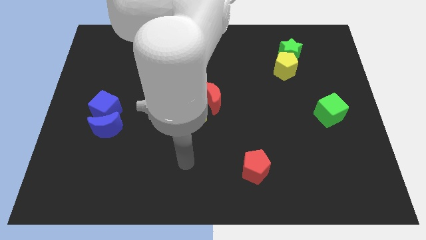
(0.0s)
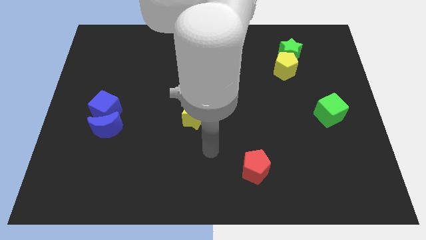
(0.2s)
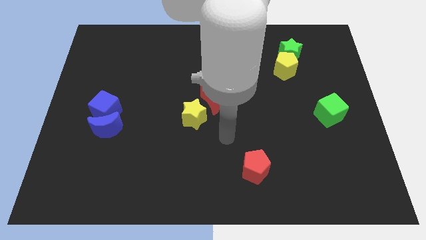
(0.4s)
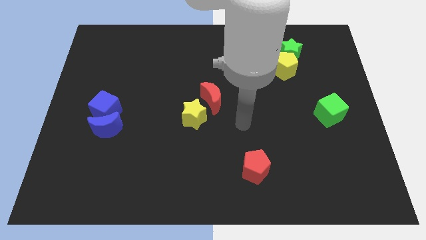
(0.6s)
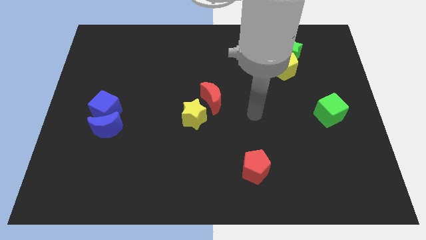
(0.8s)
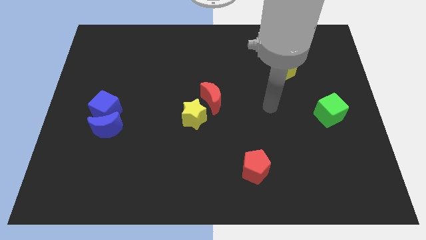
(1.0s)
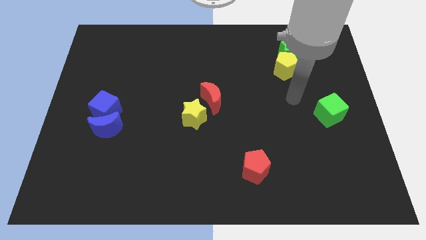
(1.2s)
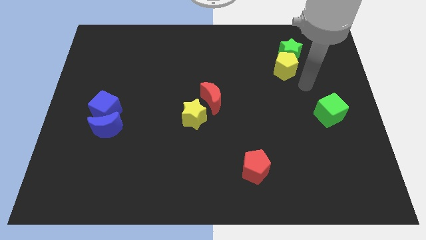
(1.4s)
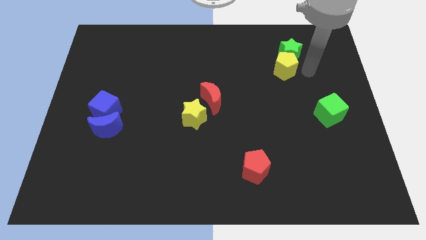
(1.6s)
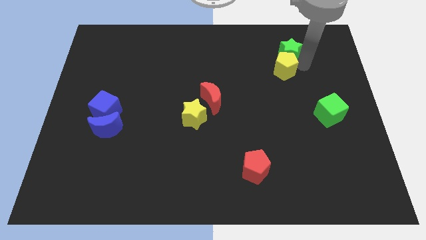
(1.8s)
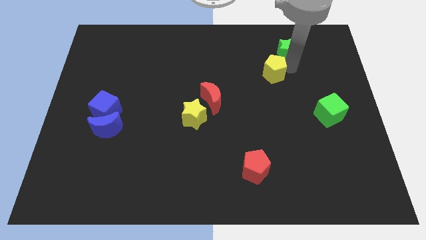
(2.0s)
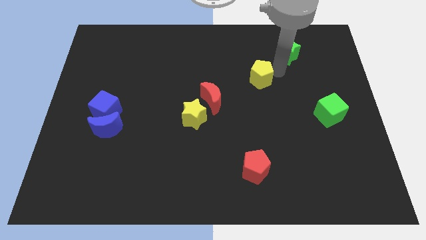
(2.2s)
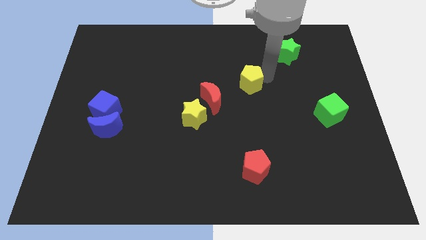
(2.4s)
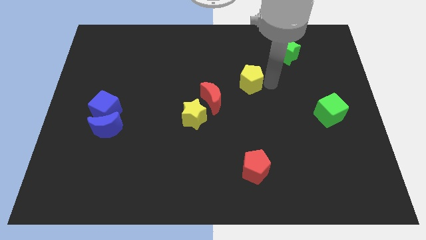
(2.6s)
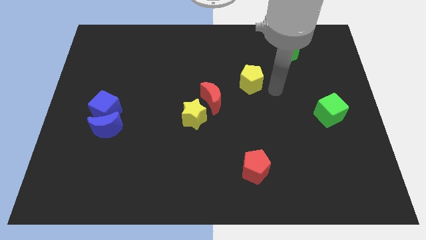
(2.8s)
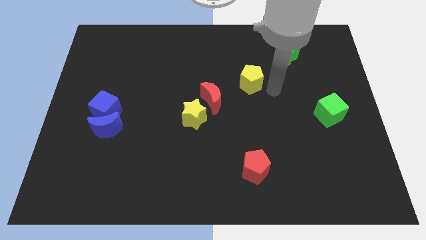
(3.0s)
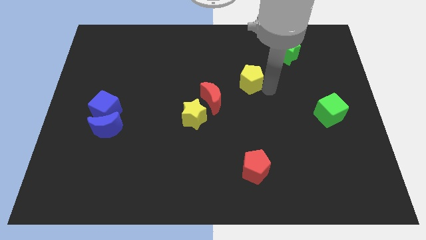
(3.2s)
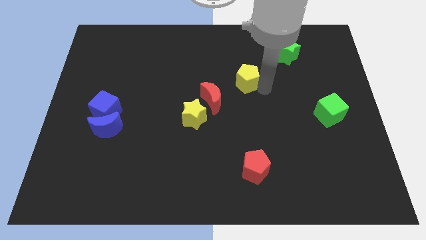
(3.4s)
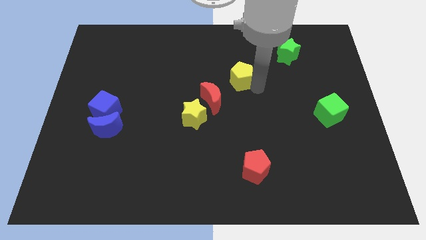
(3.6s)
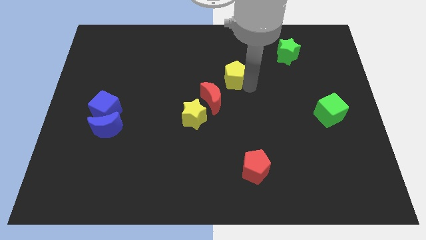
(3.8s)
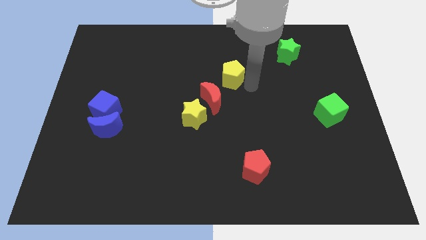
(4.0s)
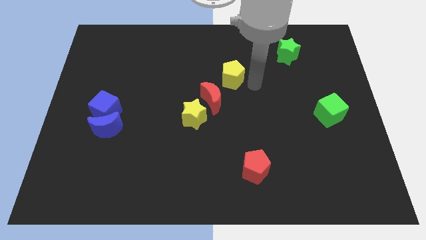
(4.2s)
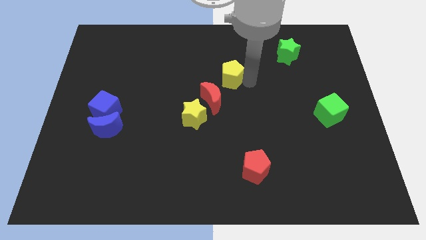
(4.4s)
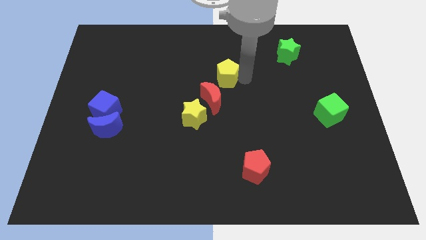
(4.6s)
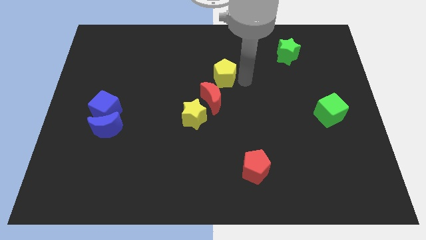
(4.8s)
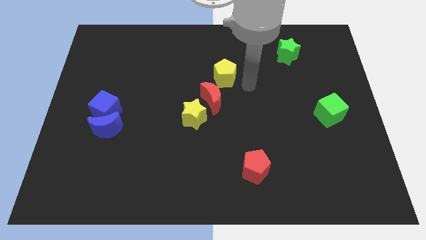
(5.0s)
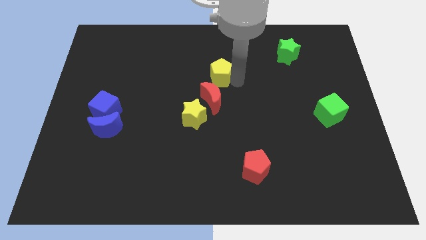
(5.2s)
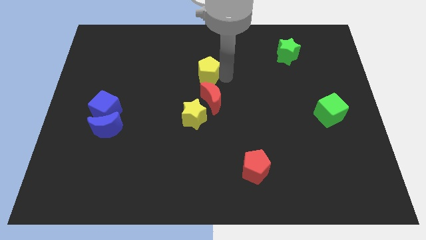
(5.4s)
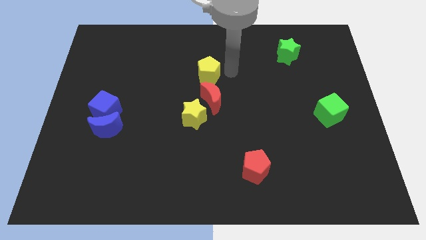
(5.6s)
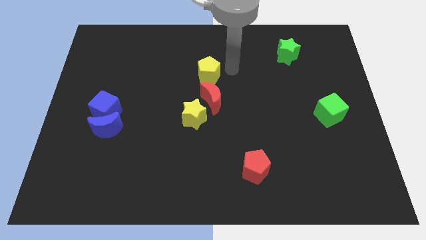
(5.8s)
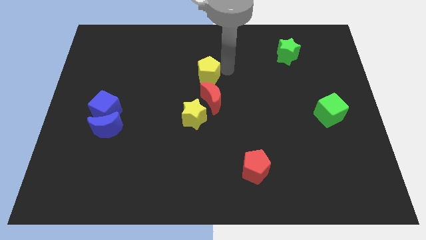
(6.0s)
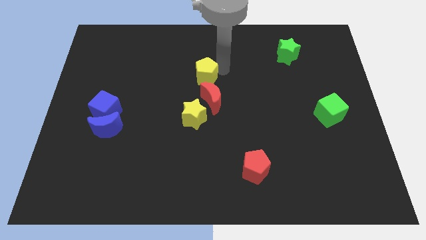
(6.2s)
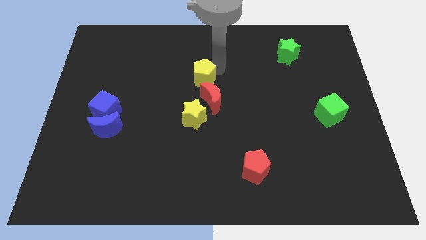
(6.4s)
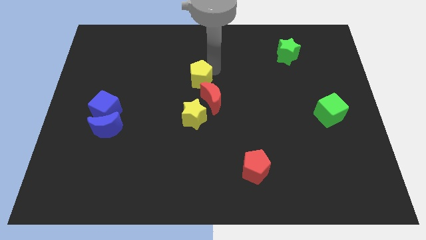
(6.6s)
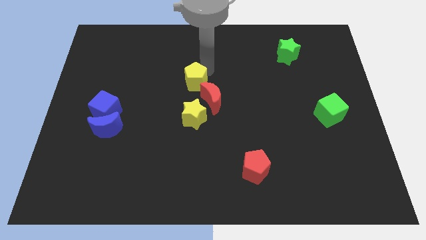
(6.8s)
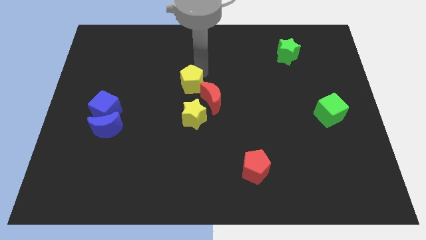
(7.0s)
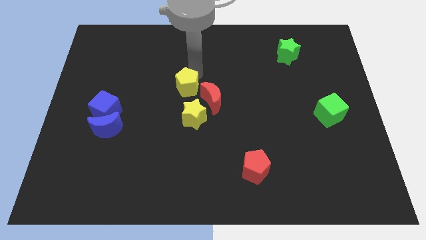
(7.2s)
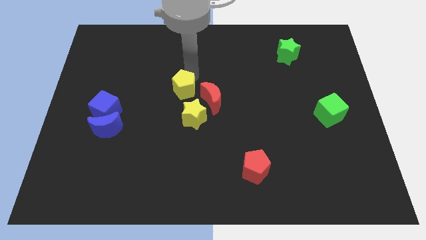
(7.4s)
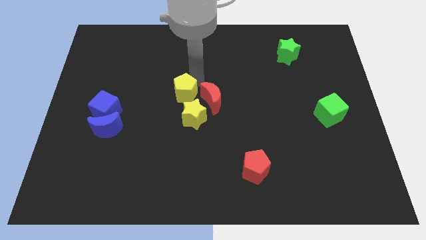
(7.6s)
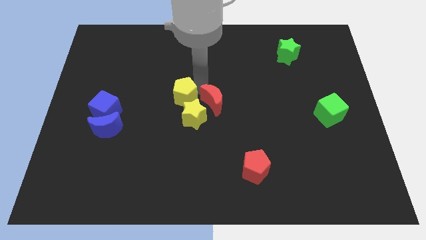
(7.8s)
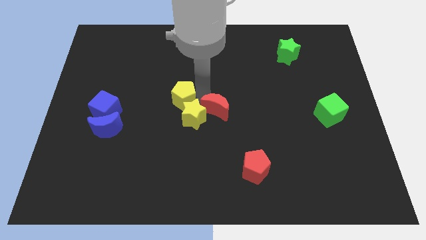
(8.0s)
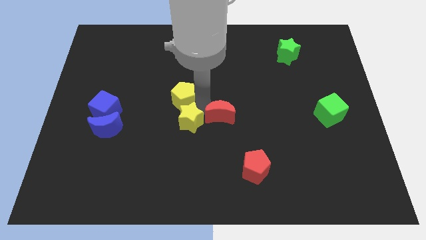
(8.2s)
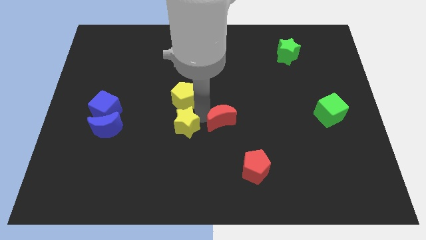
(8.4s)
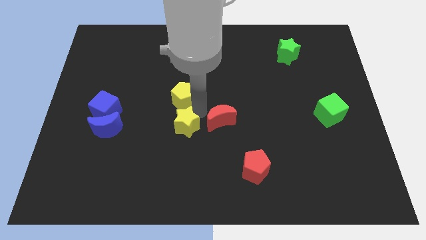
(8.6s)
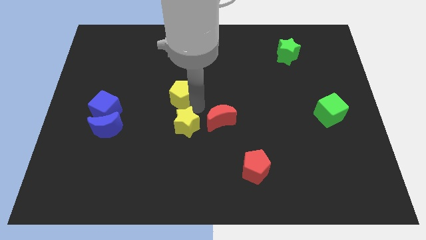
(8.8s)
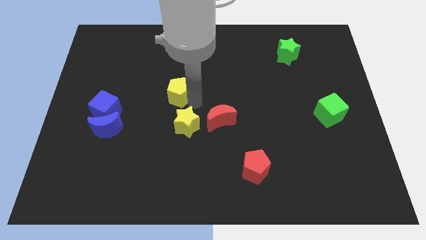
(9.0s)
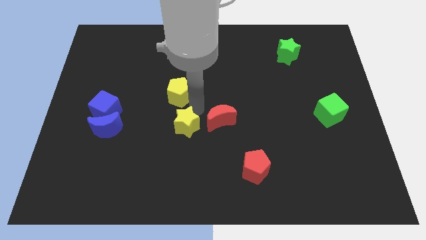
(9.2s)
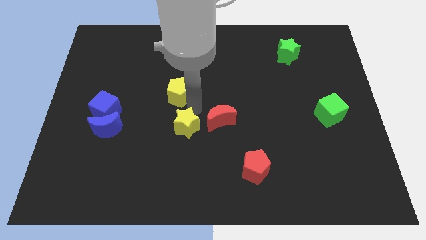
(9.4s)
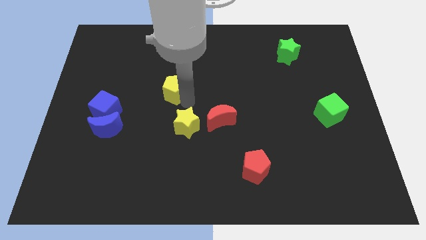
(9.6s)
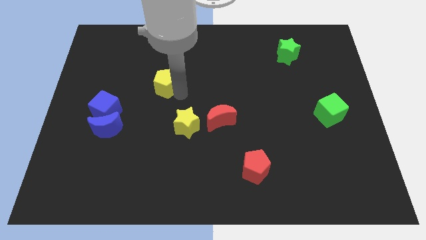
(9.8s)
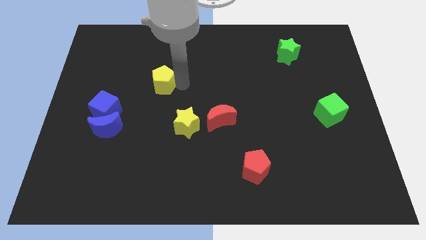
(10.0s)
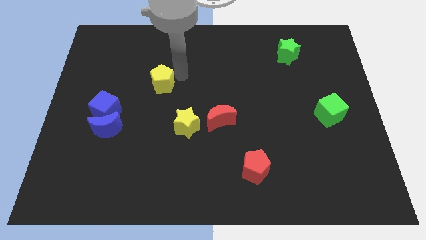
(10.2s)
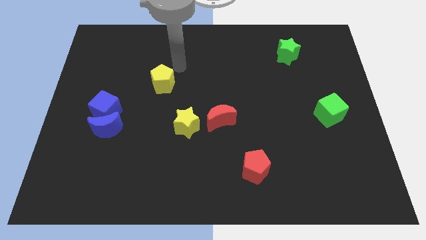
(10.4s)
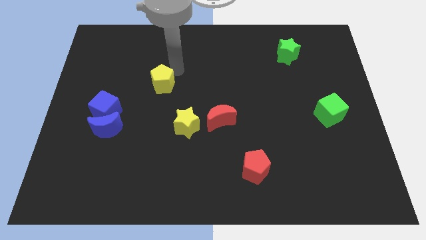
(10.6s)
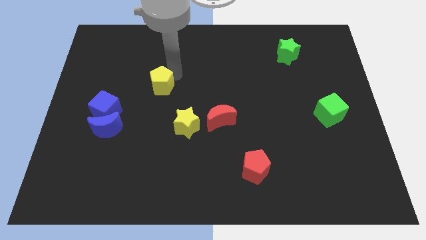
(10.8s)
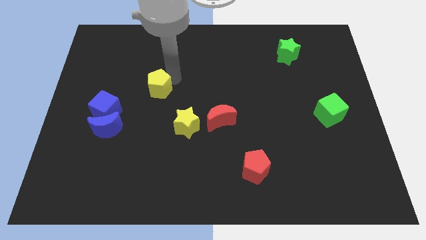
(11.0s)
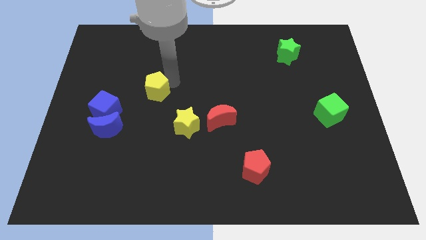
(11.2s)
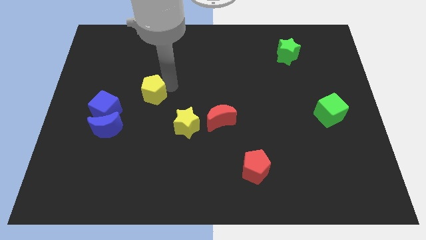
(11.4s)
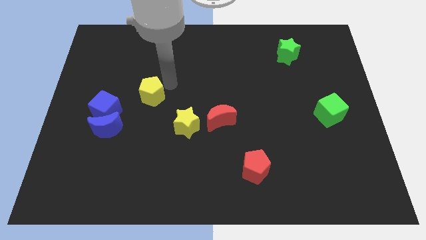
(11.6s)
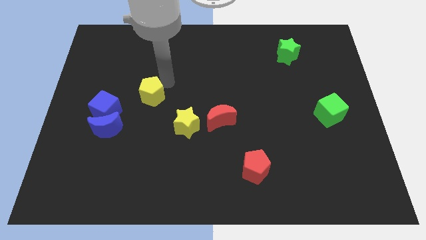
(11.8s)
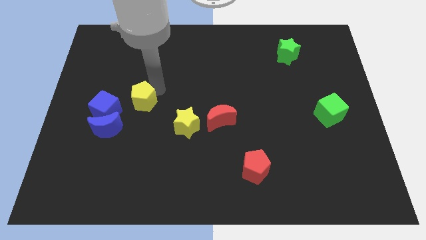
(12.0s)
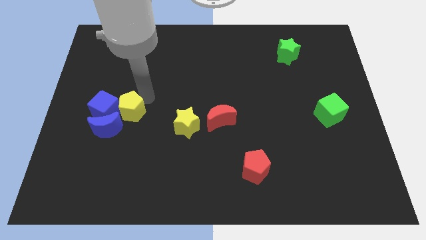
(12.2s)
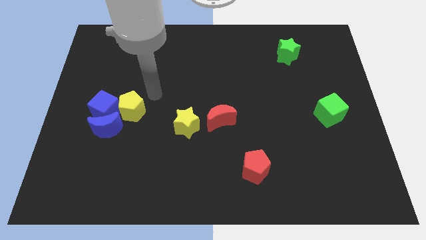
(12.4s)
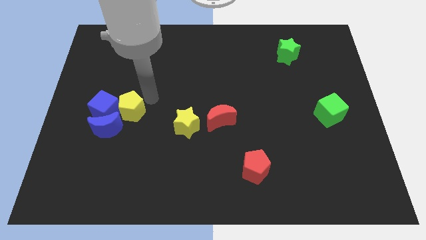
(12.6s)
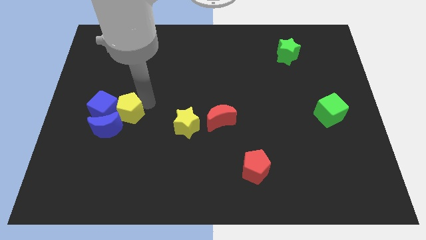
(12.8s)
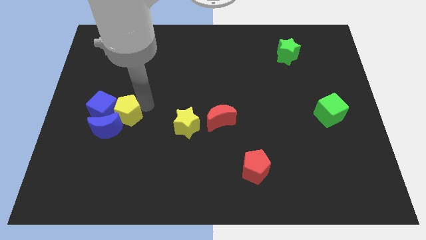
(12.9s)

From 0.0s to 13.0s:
slide the yellow pentagon towards the blue moon

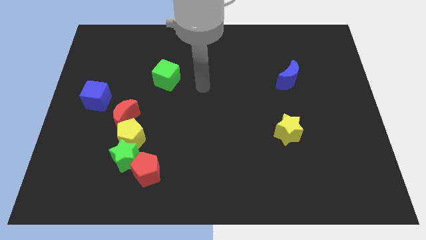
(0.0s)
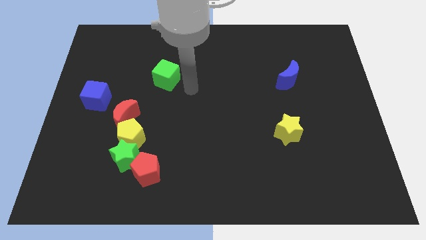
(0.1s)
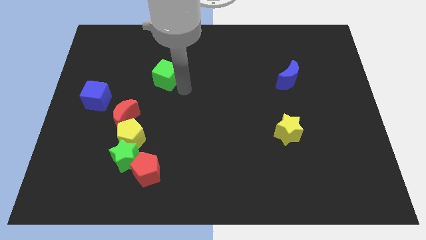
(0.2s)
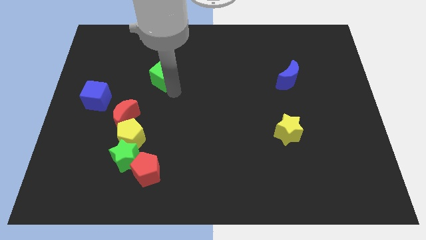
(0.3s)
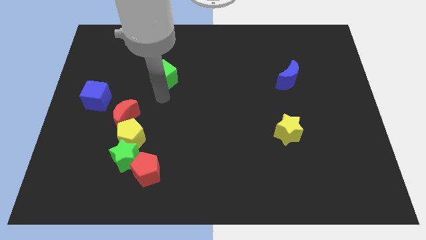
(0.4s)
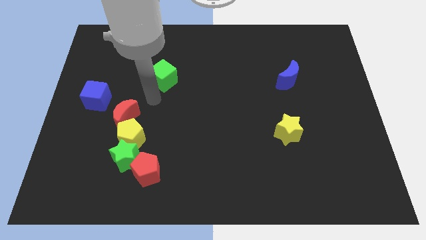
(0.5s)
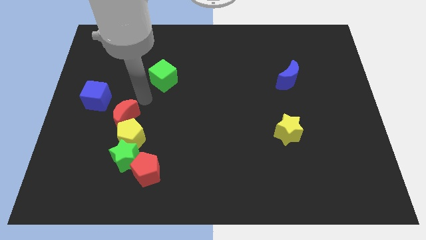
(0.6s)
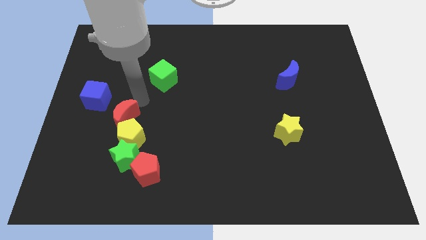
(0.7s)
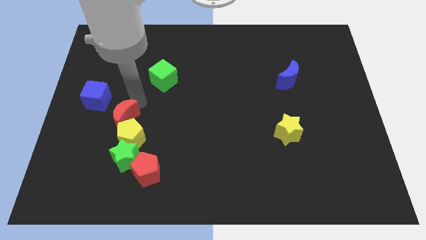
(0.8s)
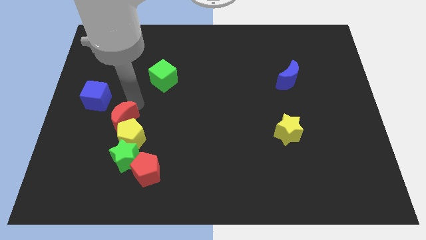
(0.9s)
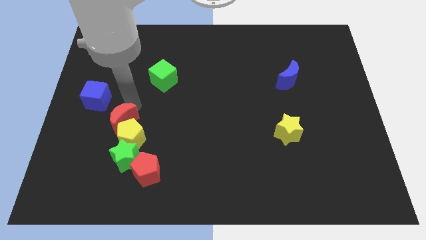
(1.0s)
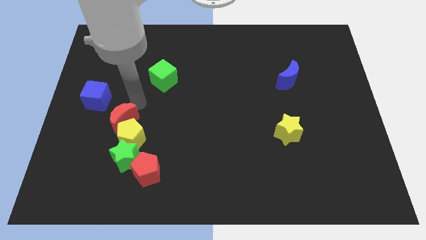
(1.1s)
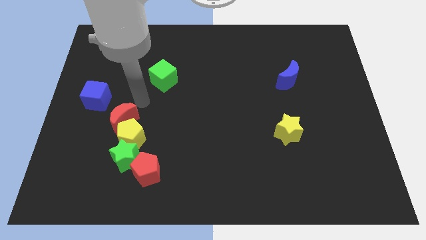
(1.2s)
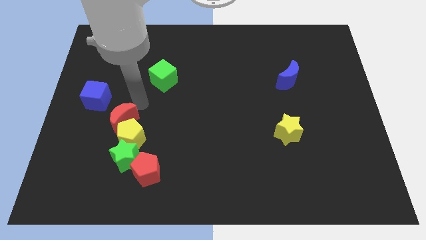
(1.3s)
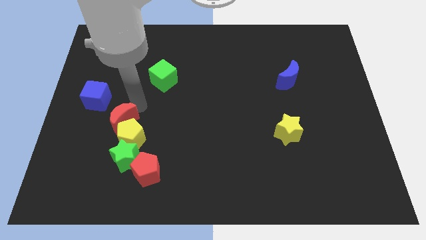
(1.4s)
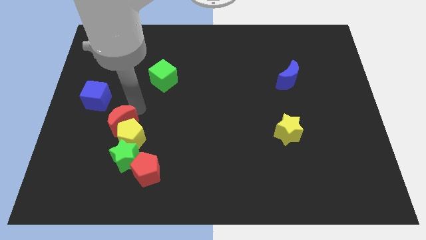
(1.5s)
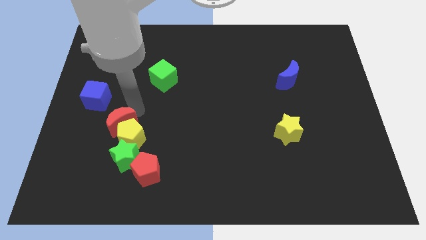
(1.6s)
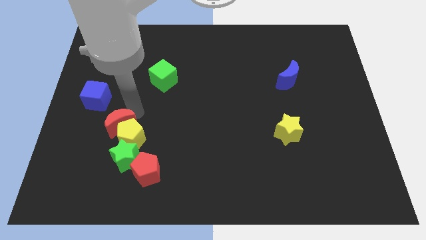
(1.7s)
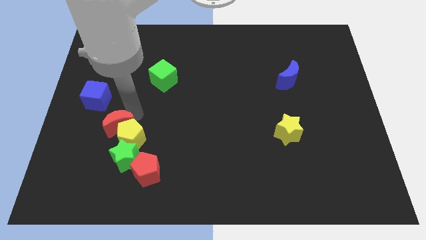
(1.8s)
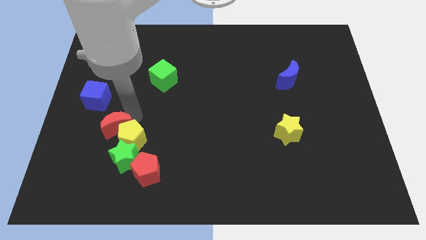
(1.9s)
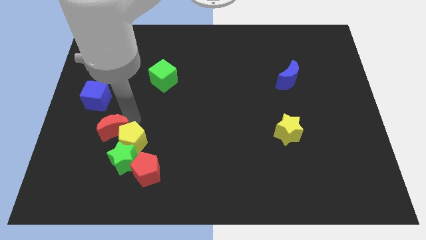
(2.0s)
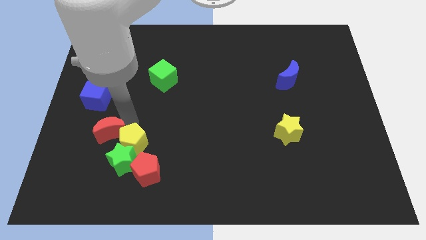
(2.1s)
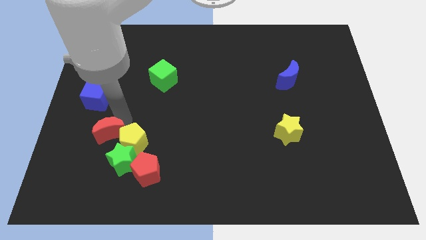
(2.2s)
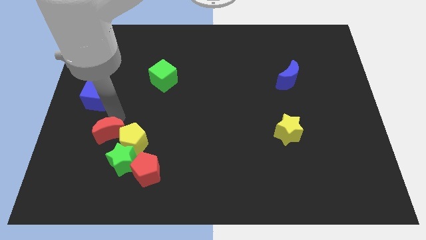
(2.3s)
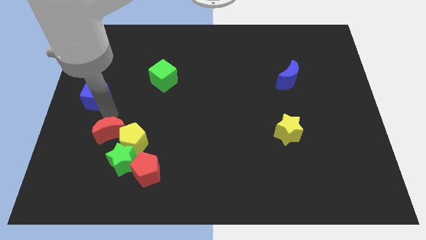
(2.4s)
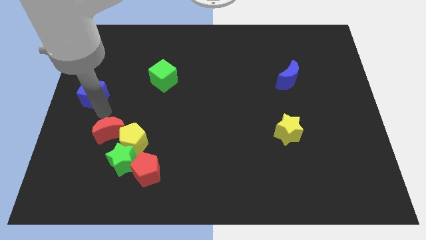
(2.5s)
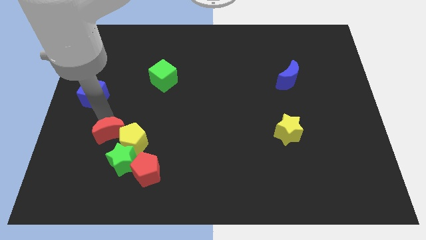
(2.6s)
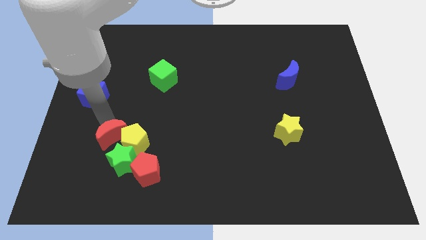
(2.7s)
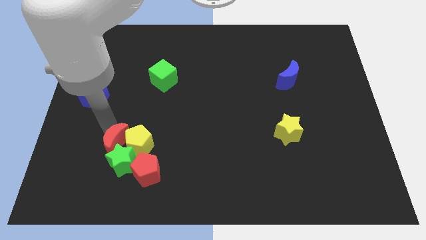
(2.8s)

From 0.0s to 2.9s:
move the red moon close to the green star
